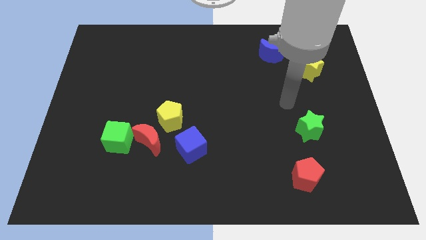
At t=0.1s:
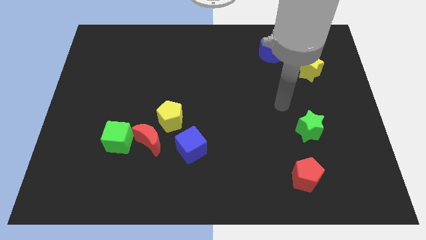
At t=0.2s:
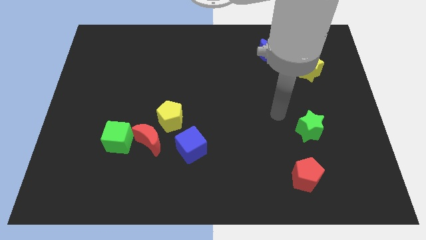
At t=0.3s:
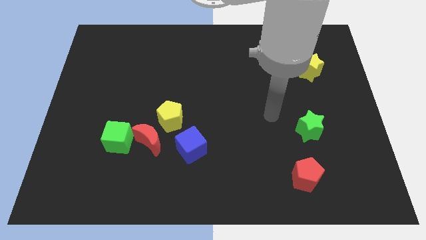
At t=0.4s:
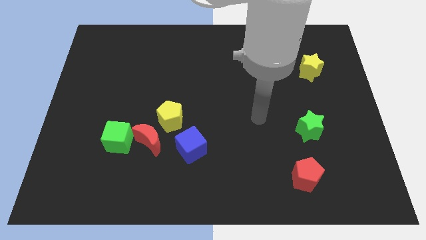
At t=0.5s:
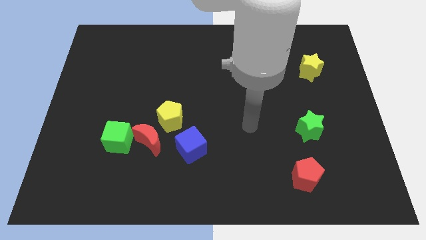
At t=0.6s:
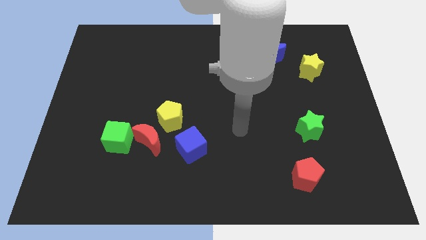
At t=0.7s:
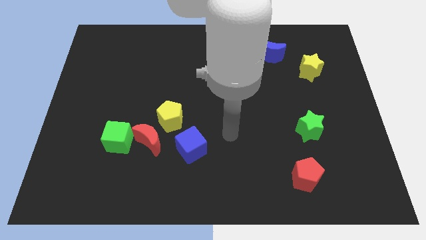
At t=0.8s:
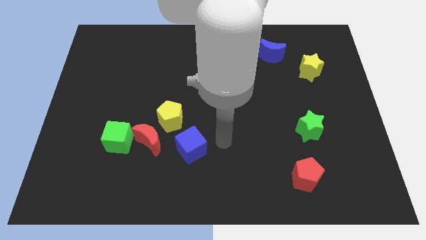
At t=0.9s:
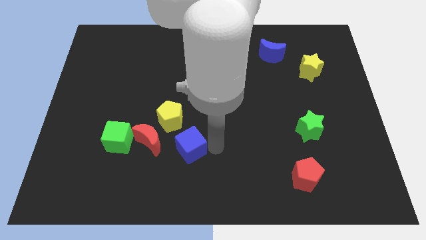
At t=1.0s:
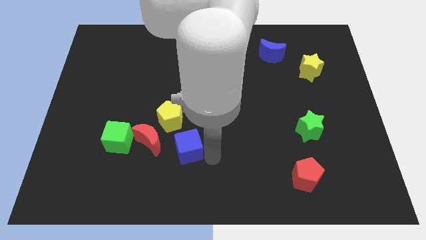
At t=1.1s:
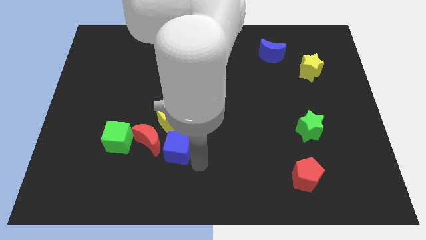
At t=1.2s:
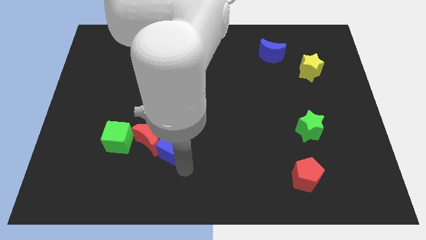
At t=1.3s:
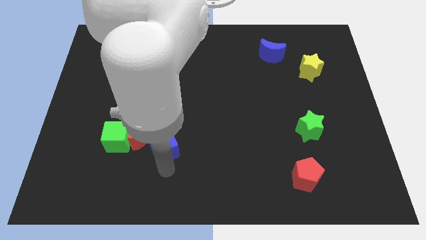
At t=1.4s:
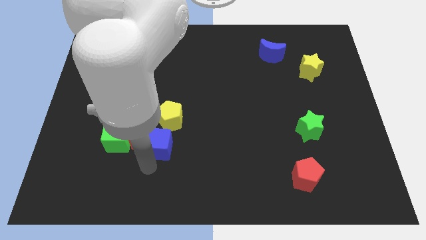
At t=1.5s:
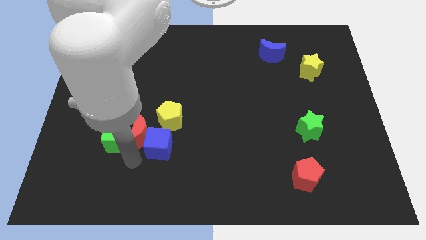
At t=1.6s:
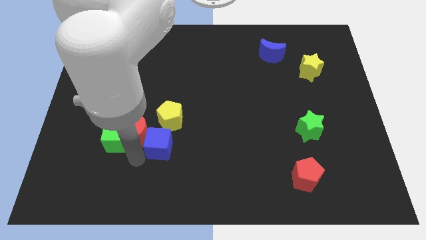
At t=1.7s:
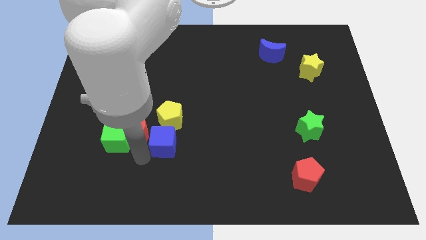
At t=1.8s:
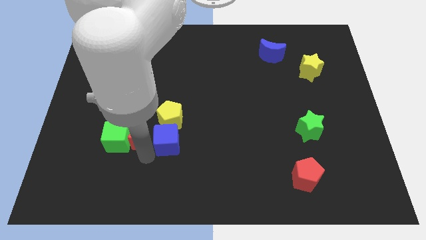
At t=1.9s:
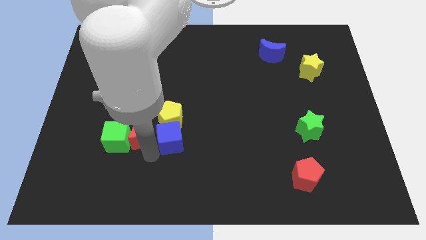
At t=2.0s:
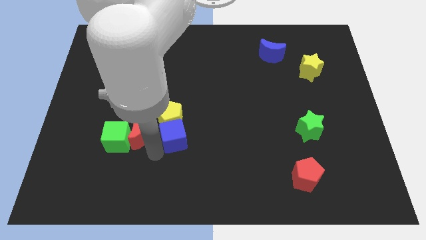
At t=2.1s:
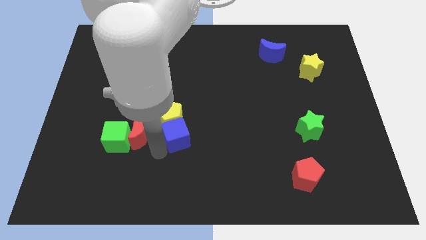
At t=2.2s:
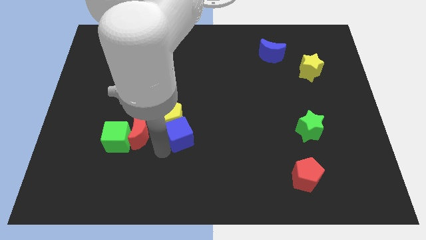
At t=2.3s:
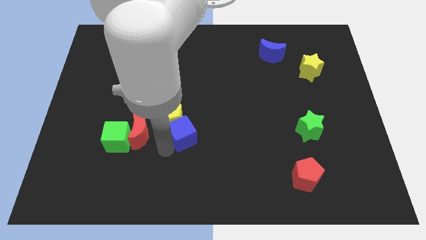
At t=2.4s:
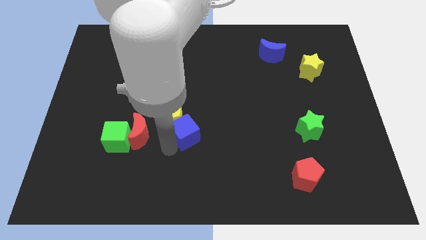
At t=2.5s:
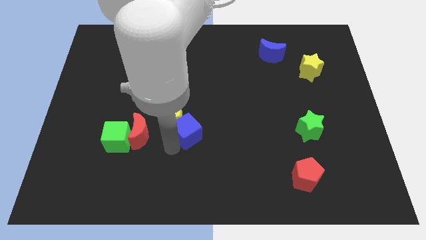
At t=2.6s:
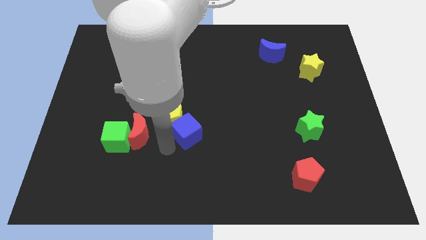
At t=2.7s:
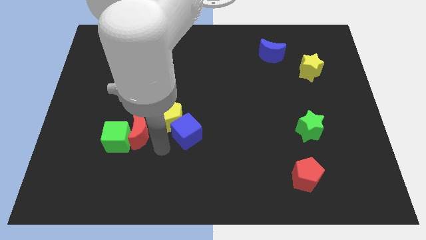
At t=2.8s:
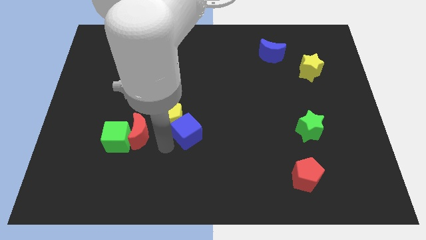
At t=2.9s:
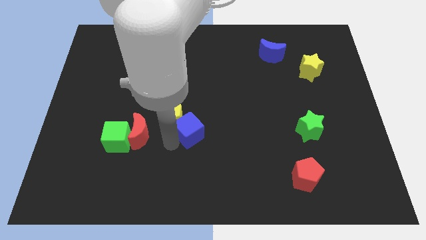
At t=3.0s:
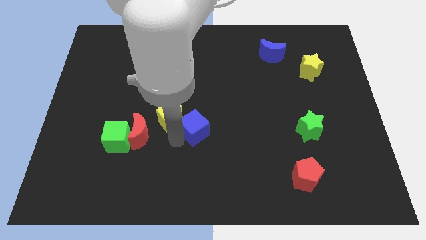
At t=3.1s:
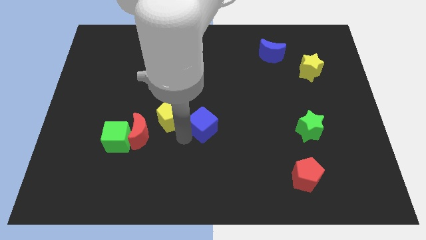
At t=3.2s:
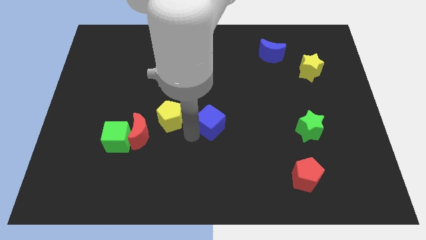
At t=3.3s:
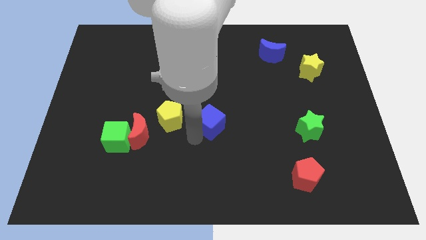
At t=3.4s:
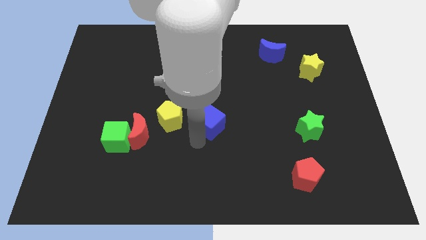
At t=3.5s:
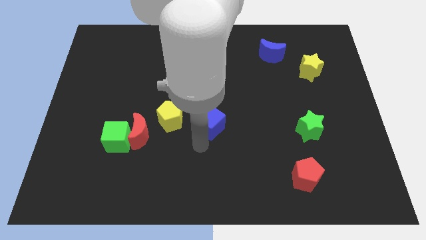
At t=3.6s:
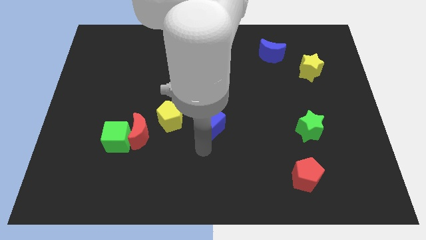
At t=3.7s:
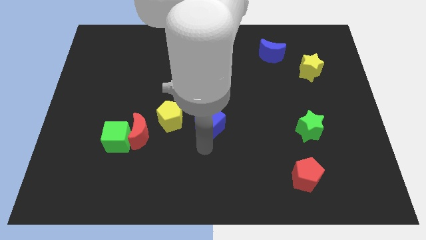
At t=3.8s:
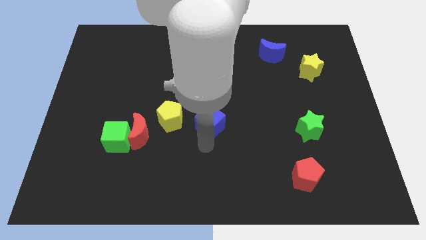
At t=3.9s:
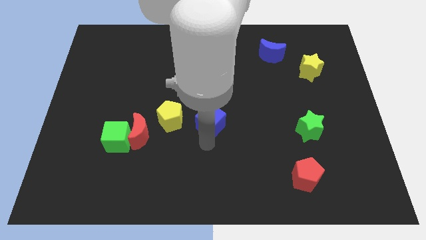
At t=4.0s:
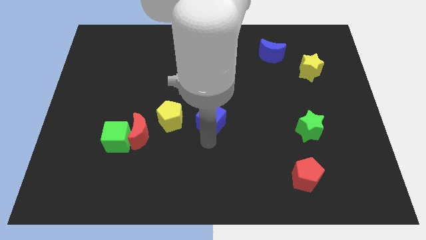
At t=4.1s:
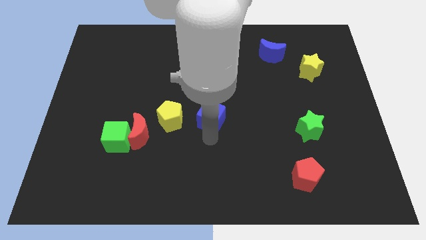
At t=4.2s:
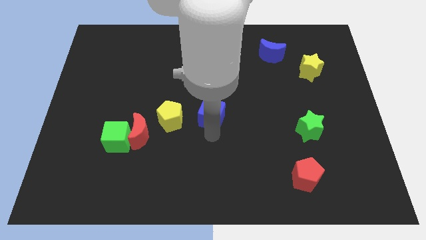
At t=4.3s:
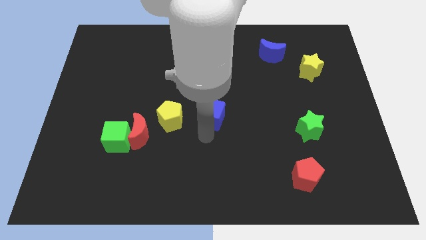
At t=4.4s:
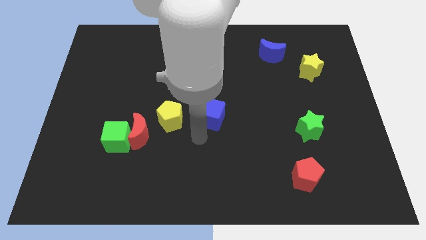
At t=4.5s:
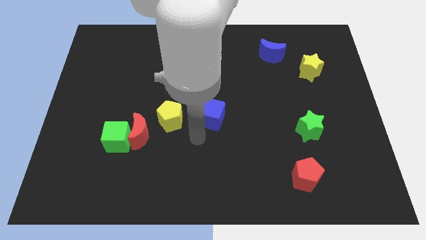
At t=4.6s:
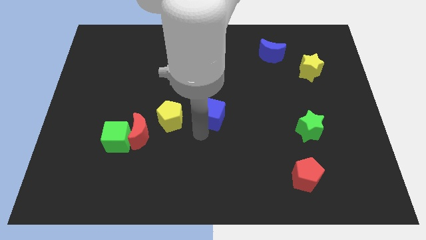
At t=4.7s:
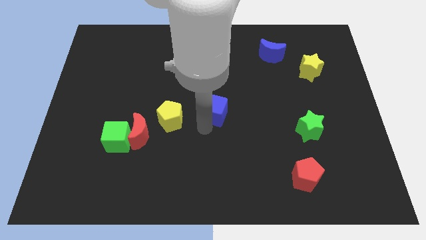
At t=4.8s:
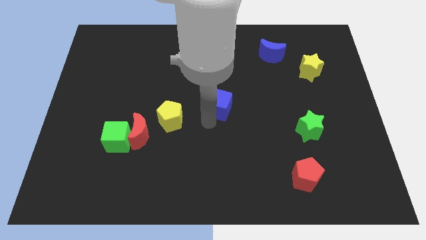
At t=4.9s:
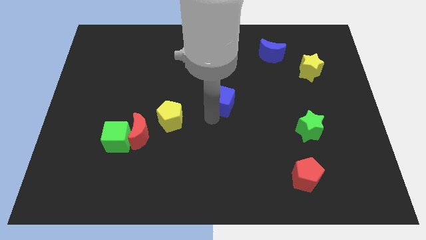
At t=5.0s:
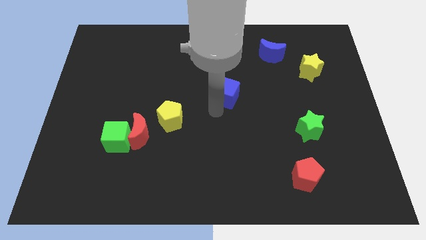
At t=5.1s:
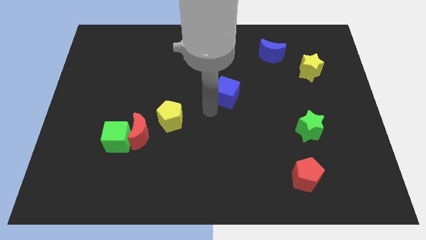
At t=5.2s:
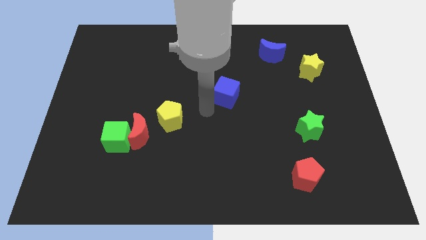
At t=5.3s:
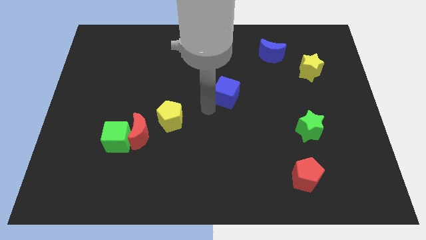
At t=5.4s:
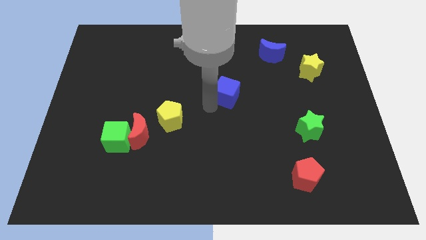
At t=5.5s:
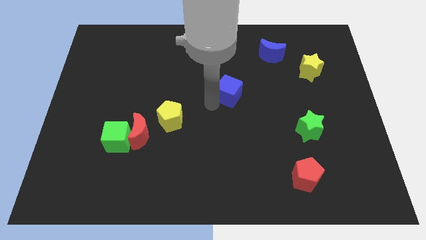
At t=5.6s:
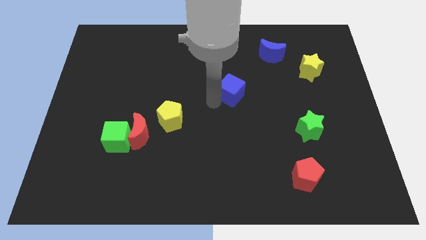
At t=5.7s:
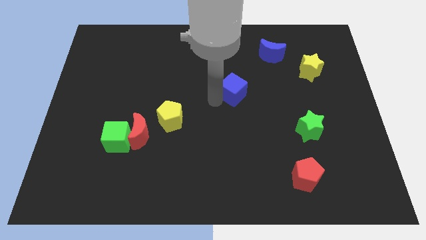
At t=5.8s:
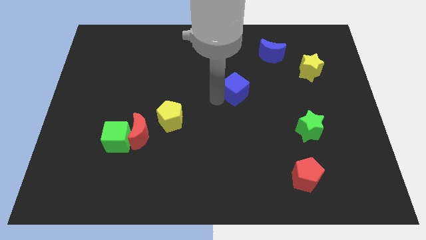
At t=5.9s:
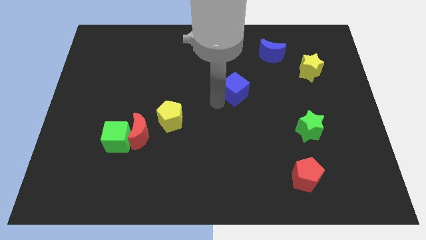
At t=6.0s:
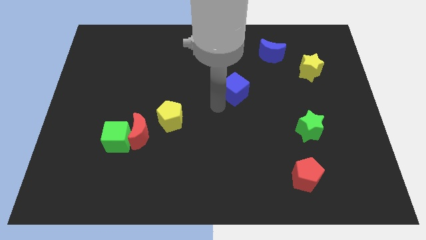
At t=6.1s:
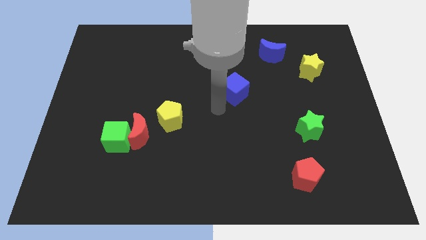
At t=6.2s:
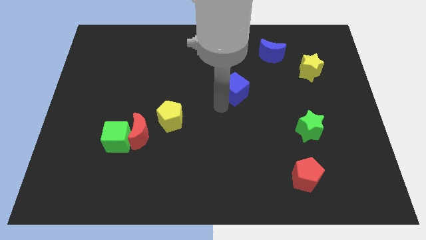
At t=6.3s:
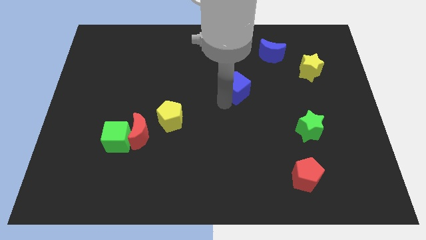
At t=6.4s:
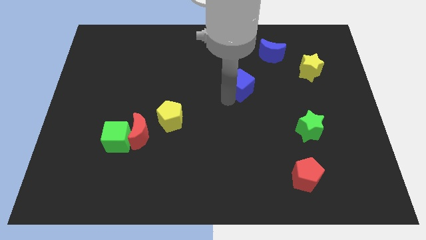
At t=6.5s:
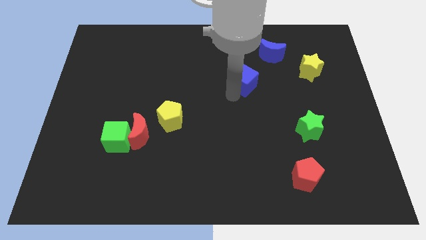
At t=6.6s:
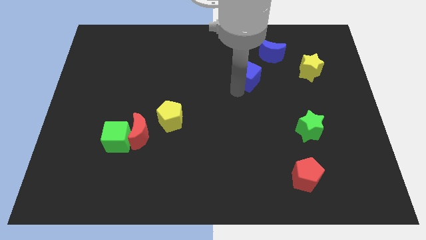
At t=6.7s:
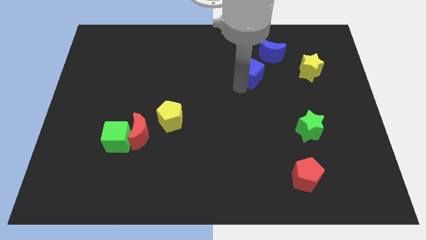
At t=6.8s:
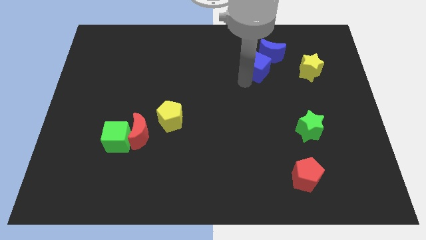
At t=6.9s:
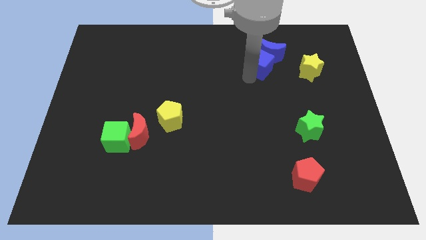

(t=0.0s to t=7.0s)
move the blue cube next to the blue moon

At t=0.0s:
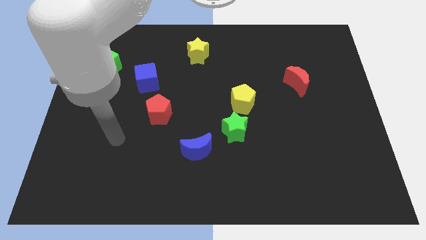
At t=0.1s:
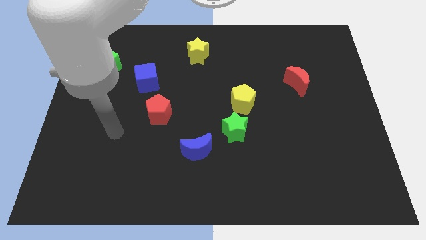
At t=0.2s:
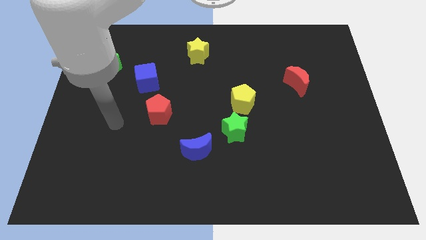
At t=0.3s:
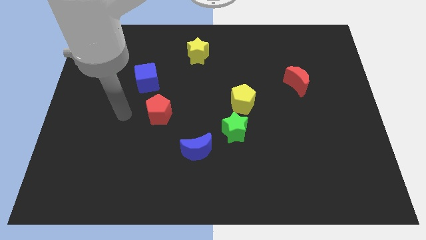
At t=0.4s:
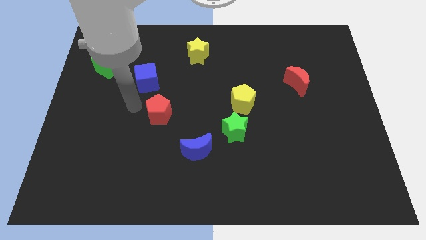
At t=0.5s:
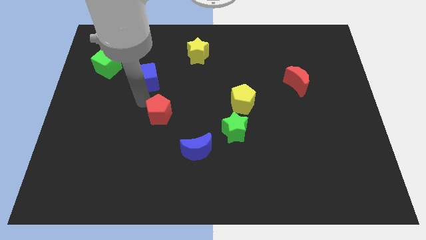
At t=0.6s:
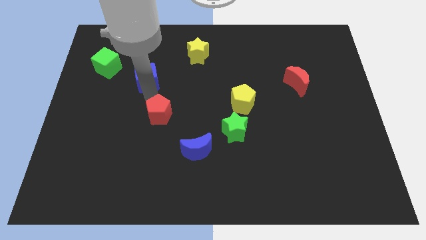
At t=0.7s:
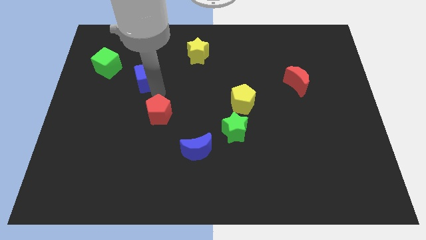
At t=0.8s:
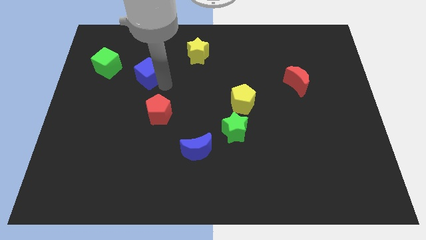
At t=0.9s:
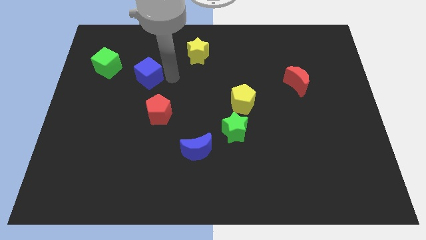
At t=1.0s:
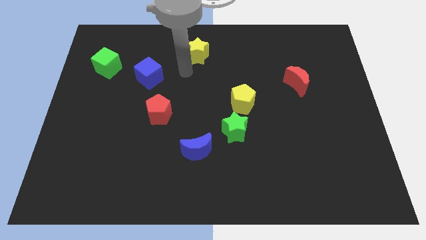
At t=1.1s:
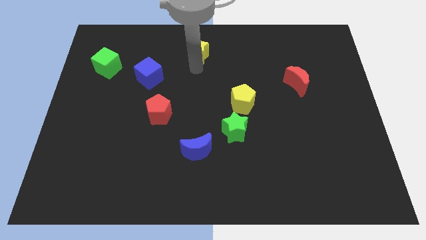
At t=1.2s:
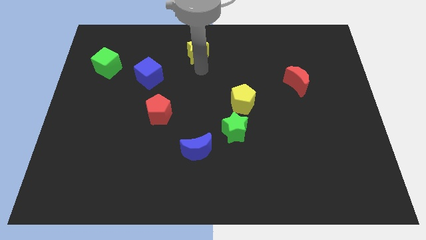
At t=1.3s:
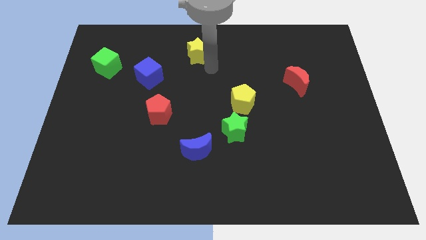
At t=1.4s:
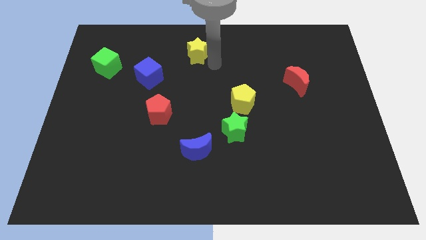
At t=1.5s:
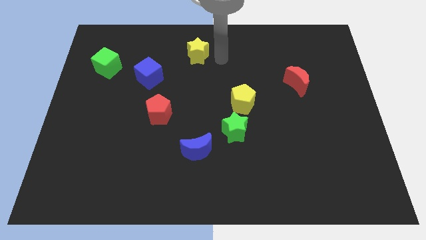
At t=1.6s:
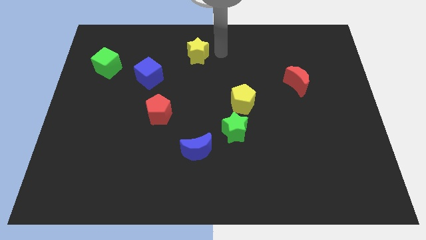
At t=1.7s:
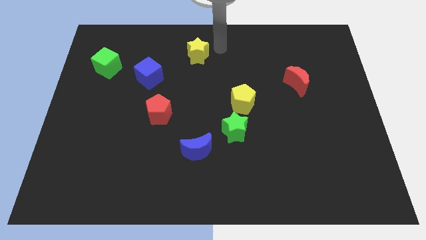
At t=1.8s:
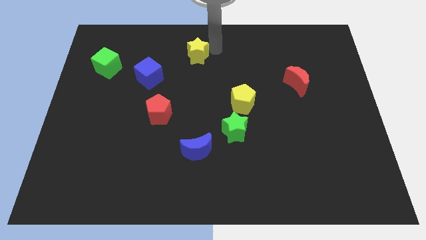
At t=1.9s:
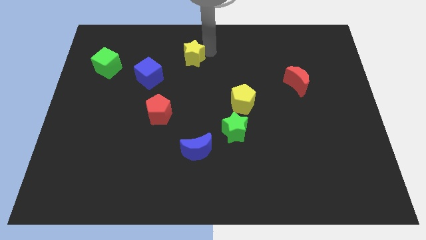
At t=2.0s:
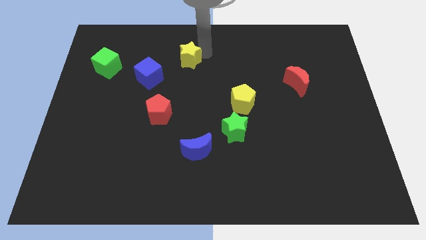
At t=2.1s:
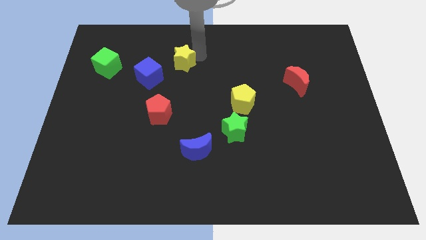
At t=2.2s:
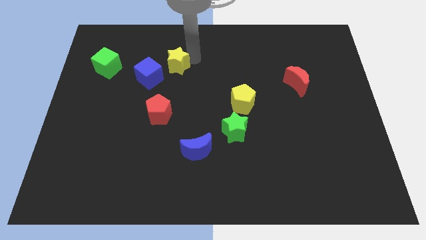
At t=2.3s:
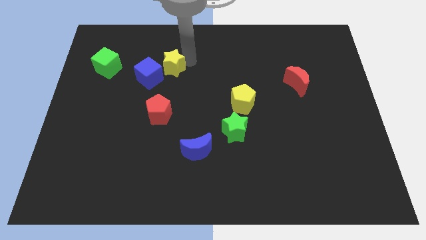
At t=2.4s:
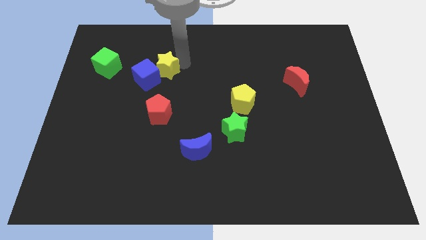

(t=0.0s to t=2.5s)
put the yellow star towards the blue cube
